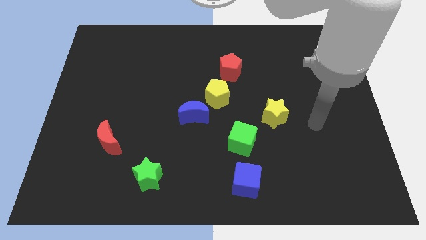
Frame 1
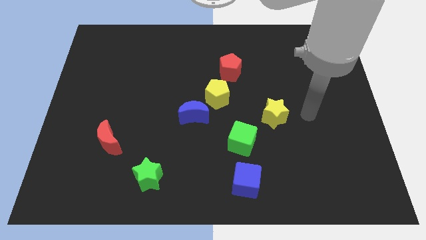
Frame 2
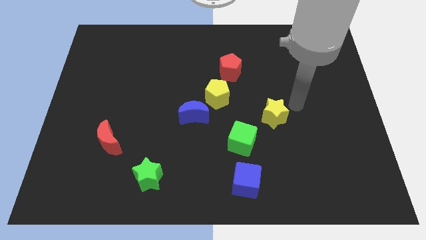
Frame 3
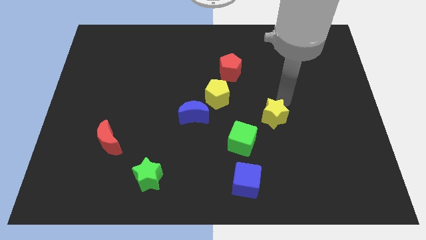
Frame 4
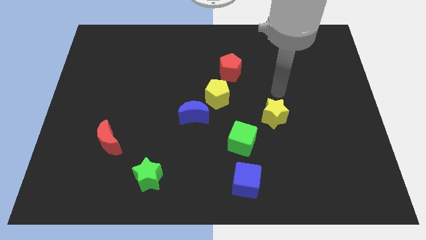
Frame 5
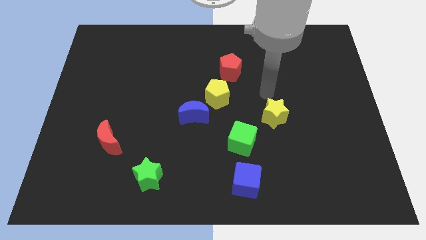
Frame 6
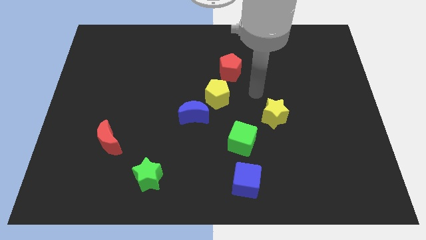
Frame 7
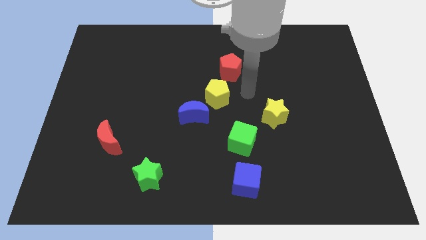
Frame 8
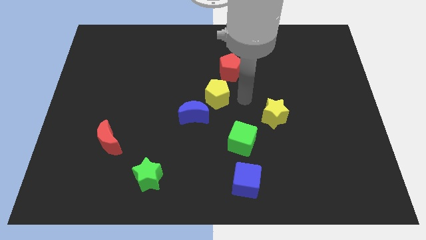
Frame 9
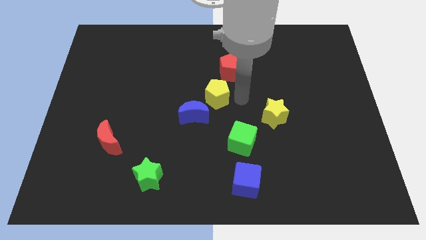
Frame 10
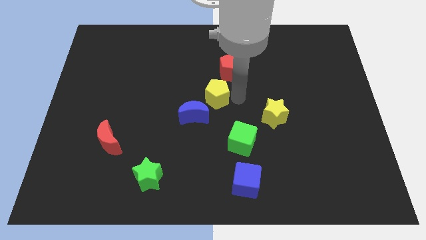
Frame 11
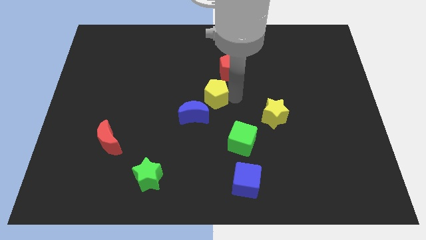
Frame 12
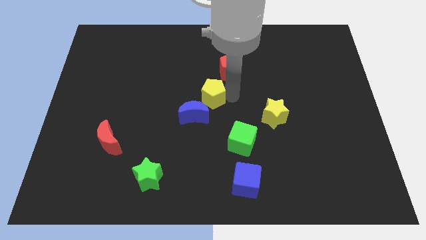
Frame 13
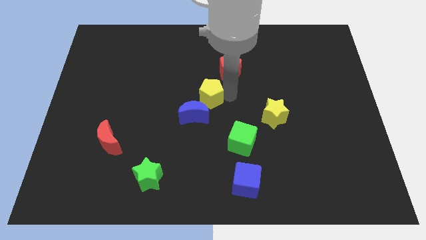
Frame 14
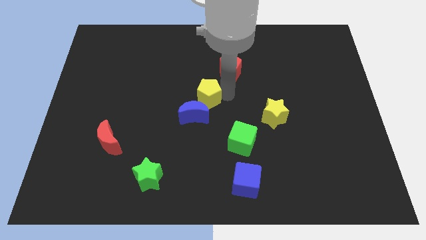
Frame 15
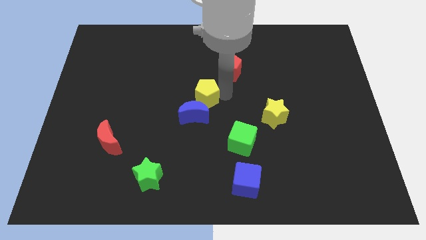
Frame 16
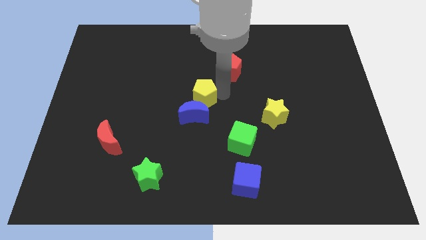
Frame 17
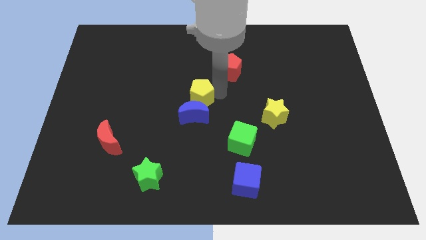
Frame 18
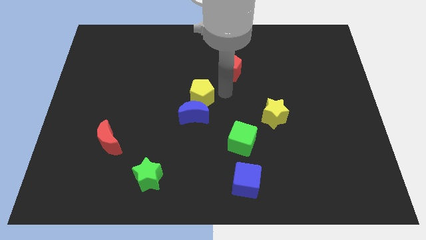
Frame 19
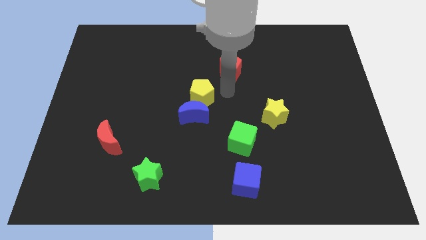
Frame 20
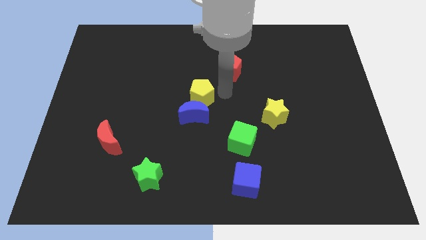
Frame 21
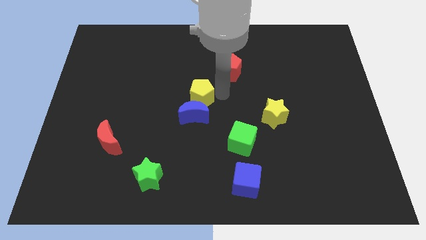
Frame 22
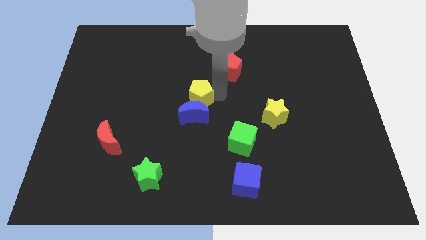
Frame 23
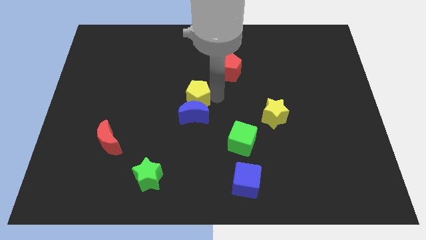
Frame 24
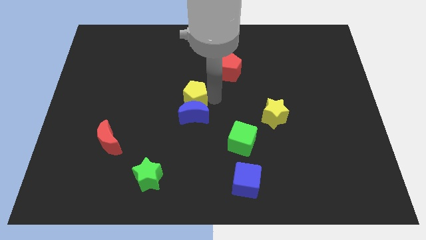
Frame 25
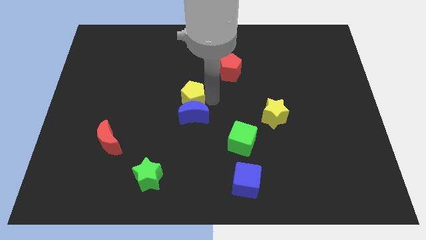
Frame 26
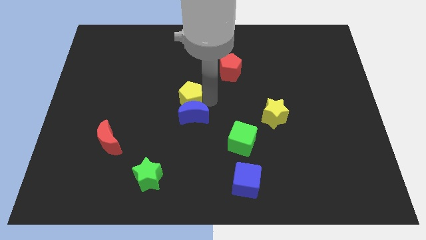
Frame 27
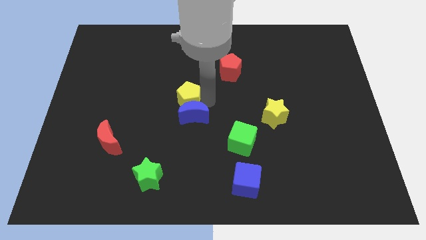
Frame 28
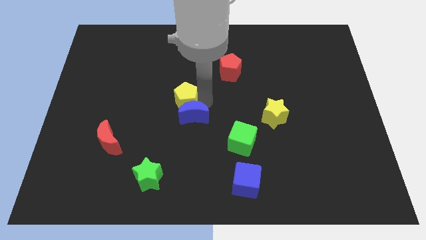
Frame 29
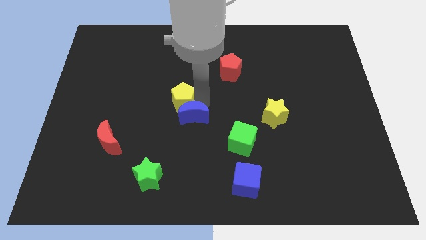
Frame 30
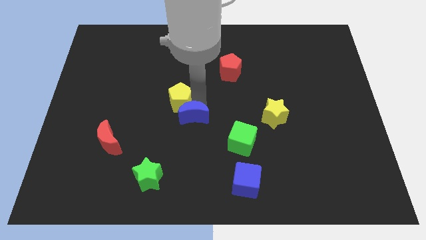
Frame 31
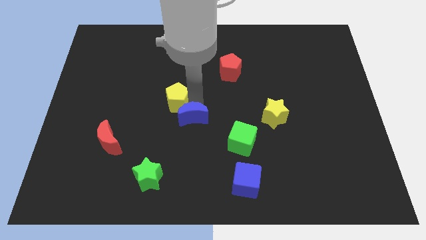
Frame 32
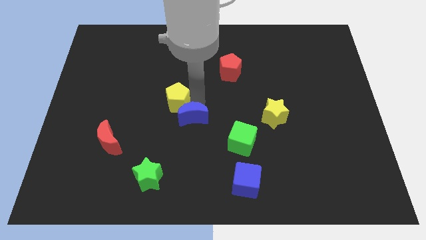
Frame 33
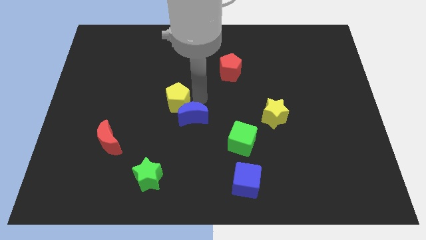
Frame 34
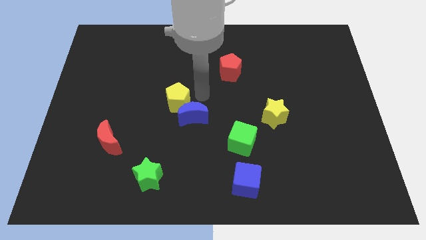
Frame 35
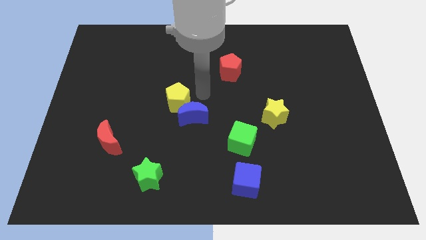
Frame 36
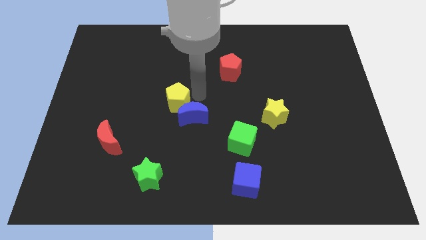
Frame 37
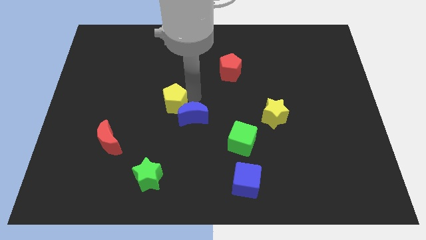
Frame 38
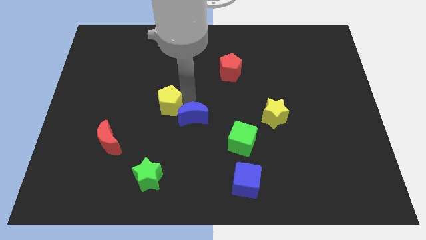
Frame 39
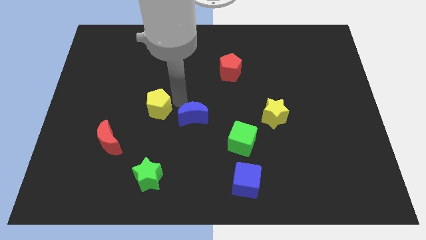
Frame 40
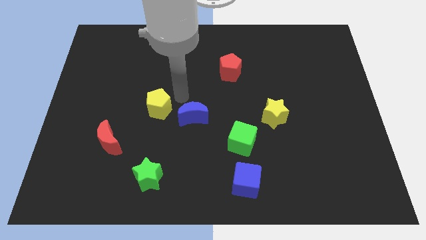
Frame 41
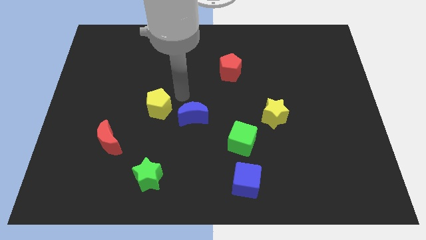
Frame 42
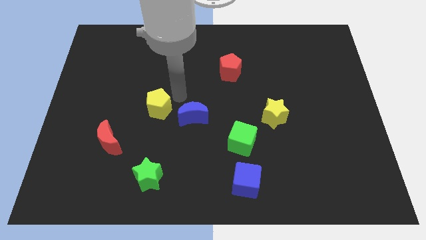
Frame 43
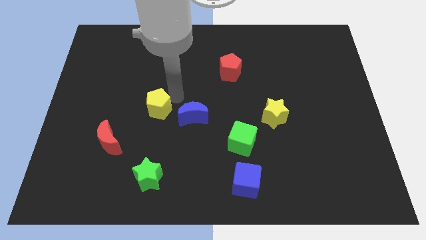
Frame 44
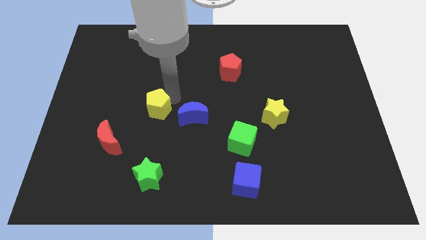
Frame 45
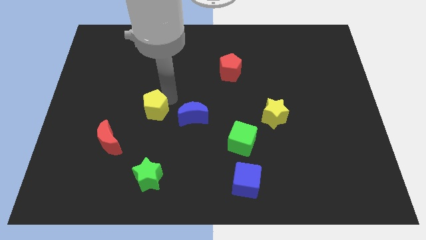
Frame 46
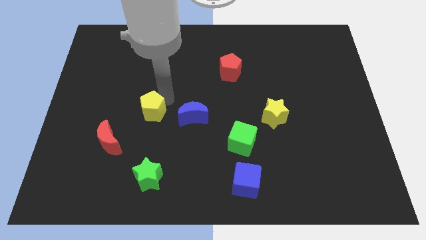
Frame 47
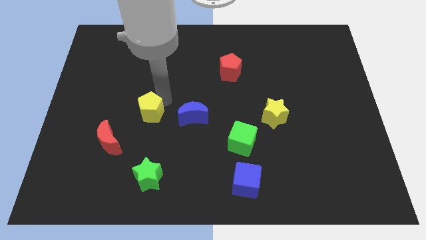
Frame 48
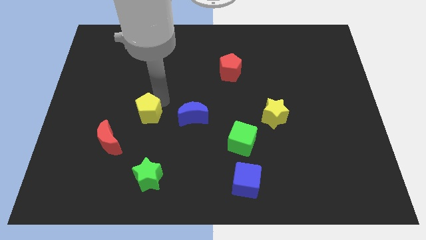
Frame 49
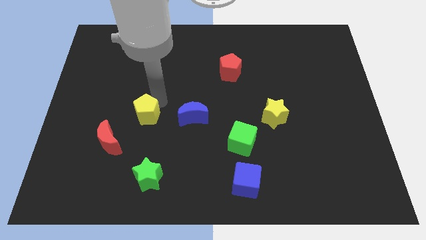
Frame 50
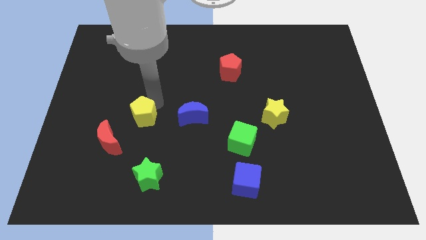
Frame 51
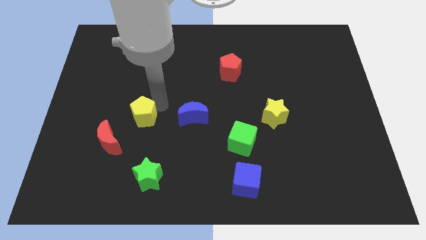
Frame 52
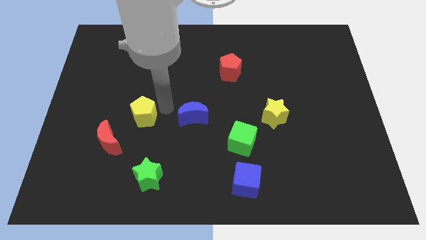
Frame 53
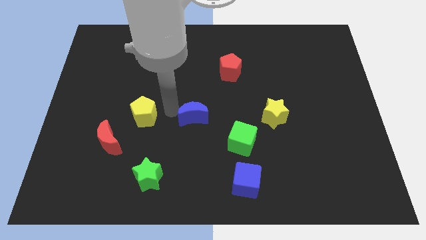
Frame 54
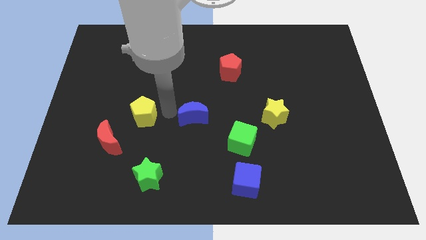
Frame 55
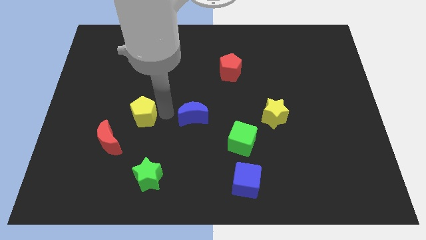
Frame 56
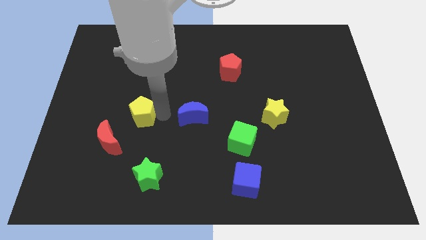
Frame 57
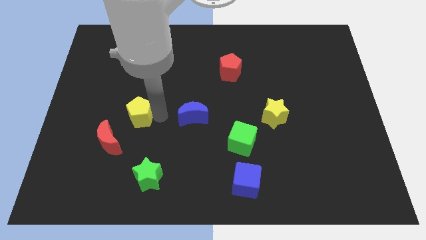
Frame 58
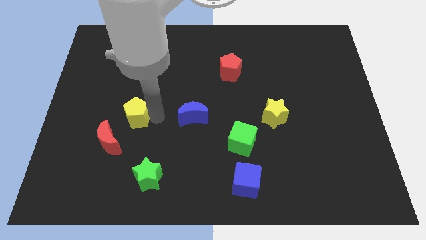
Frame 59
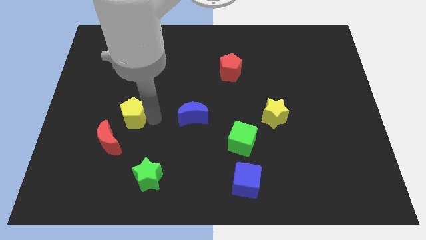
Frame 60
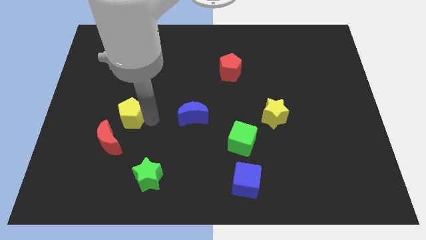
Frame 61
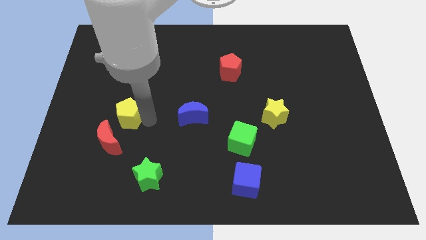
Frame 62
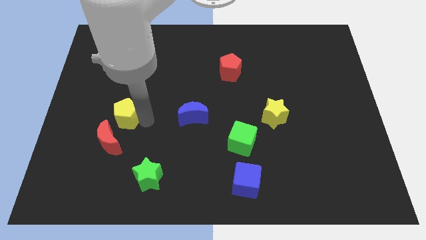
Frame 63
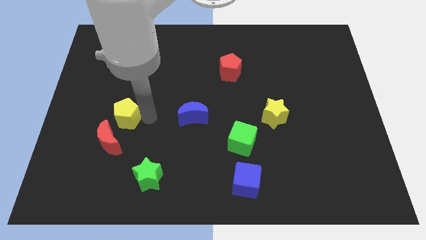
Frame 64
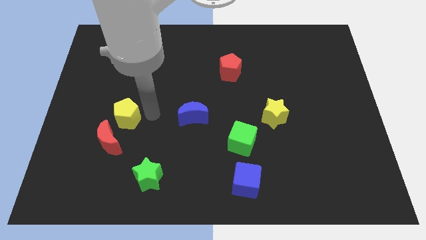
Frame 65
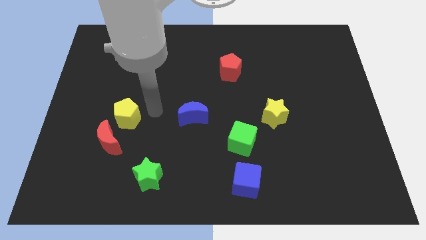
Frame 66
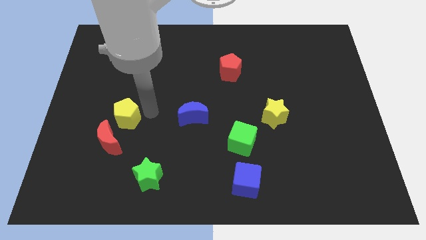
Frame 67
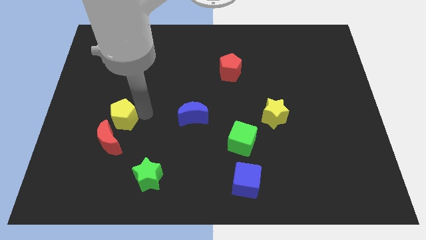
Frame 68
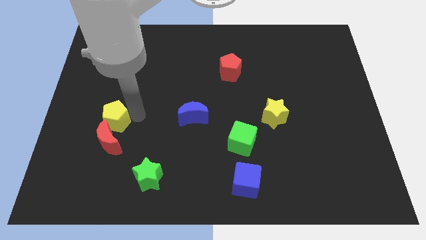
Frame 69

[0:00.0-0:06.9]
put the yellow pentagon to the top left side of the red moon

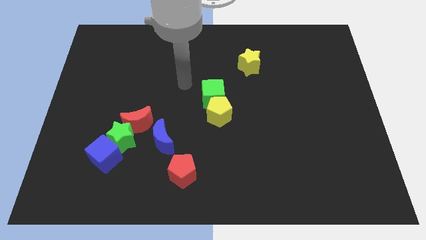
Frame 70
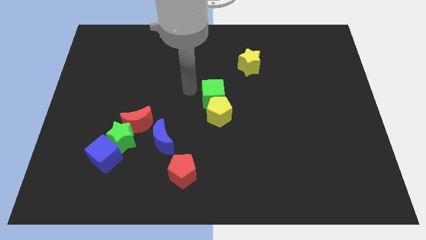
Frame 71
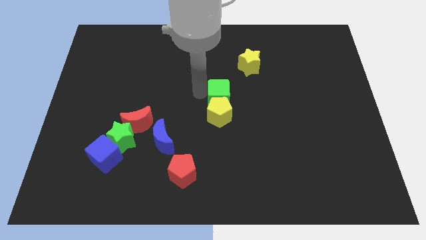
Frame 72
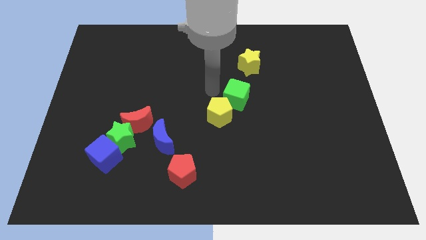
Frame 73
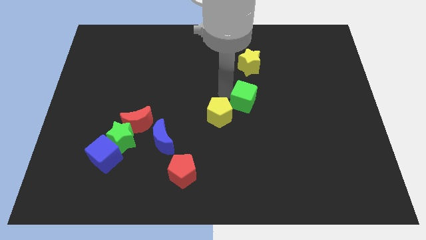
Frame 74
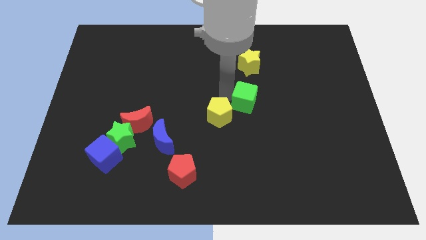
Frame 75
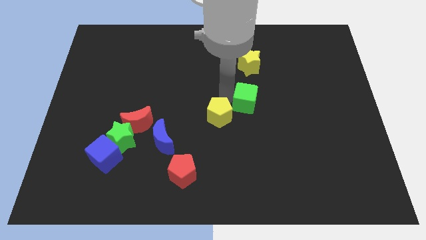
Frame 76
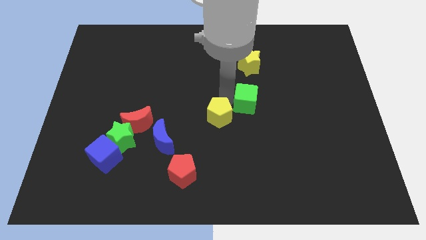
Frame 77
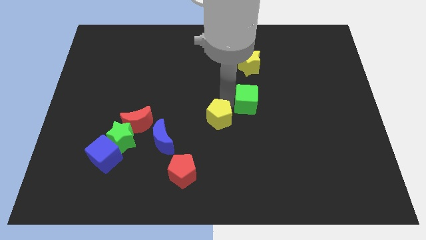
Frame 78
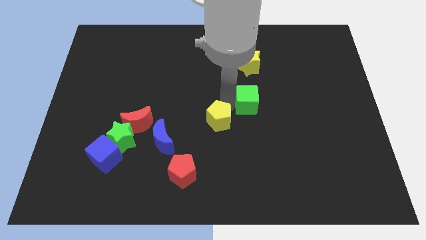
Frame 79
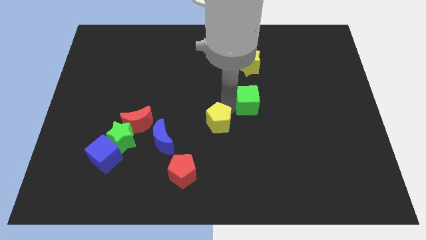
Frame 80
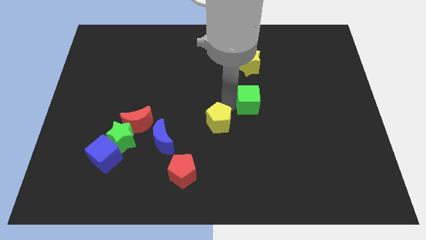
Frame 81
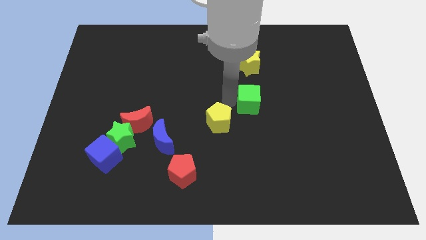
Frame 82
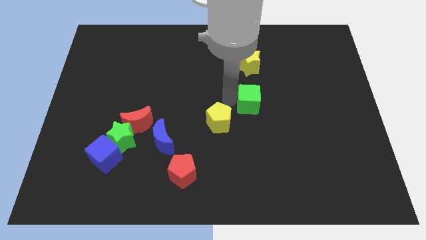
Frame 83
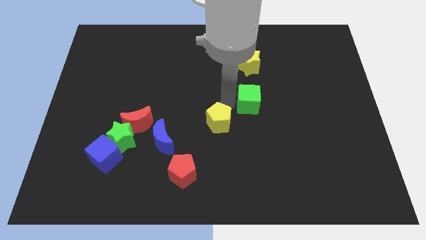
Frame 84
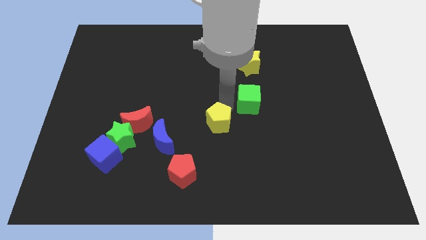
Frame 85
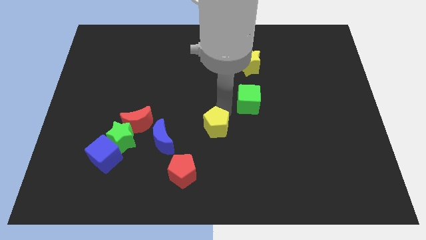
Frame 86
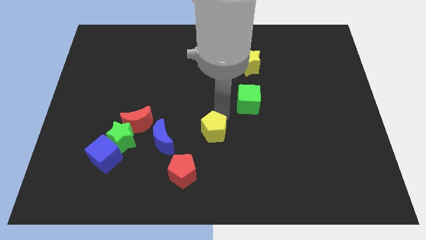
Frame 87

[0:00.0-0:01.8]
put the yellow pentagon to the top right side of the red pentagon
